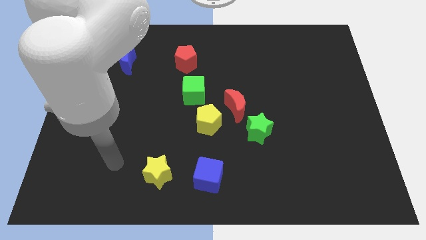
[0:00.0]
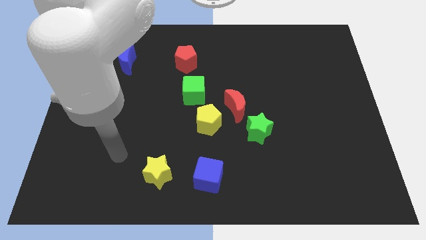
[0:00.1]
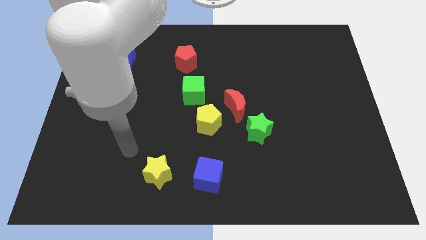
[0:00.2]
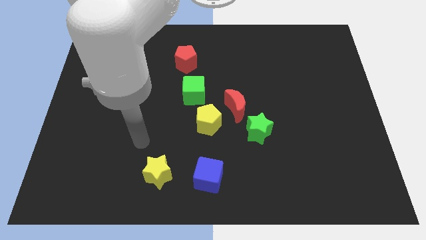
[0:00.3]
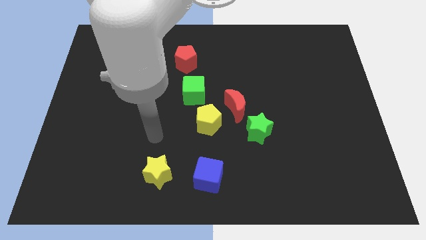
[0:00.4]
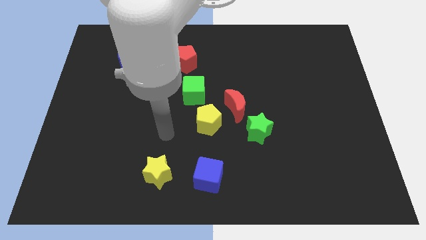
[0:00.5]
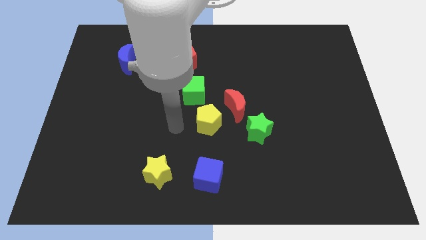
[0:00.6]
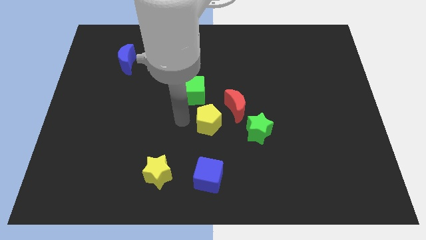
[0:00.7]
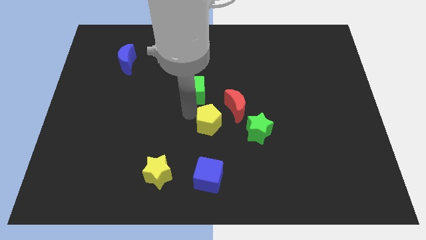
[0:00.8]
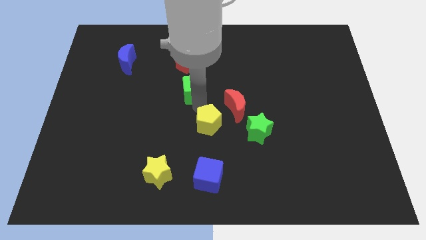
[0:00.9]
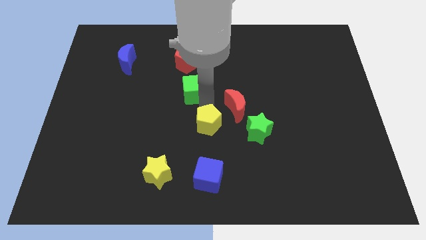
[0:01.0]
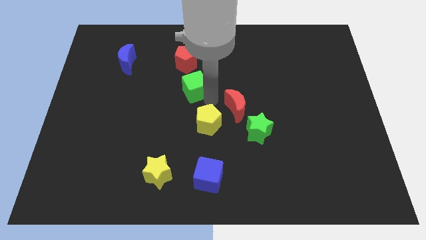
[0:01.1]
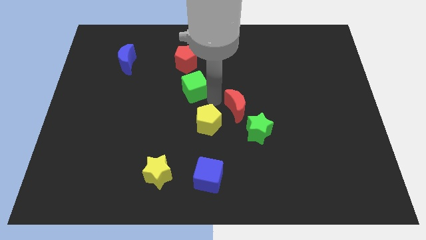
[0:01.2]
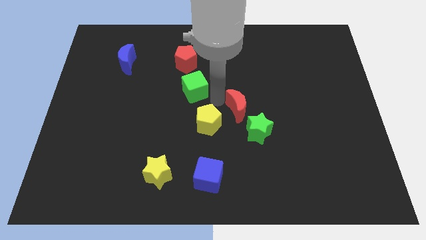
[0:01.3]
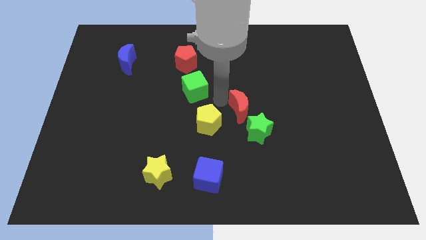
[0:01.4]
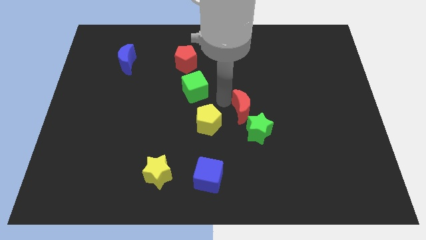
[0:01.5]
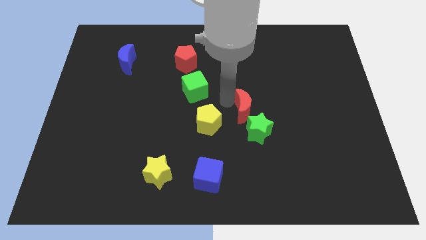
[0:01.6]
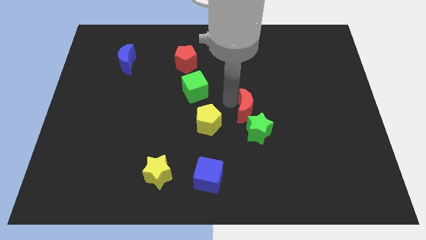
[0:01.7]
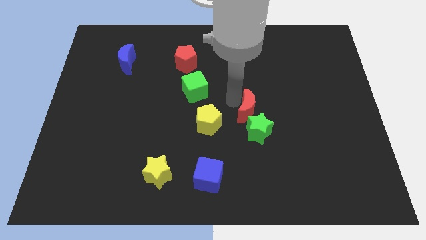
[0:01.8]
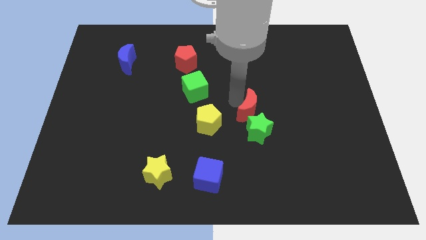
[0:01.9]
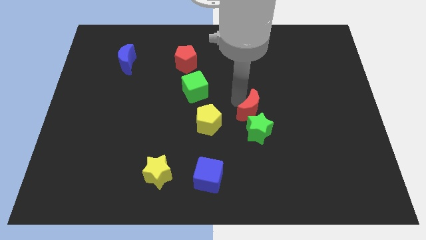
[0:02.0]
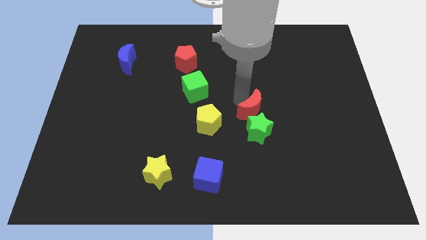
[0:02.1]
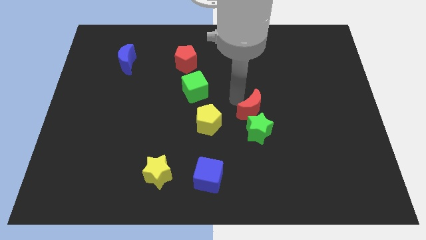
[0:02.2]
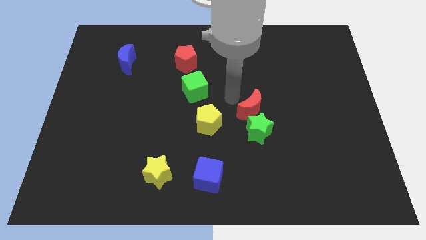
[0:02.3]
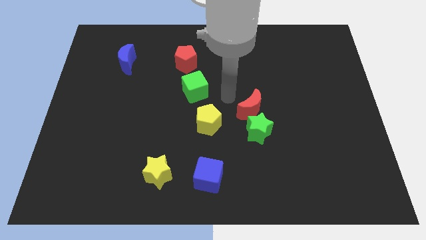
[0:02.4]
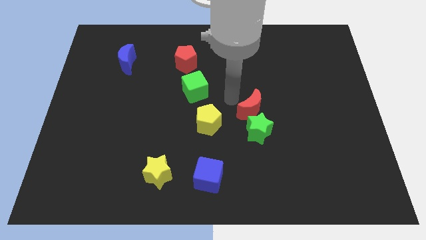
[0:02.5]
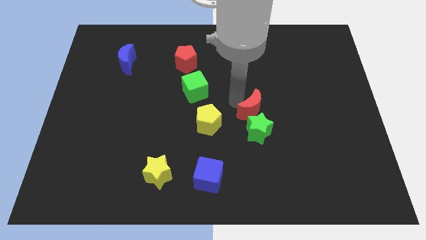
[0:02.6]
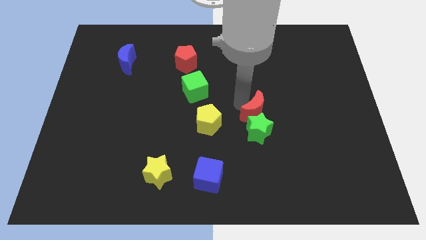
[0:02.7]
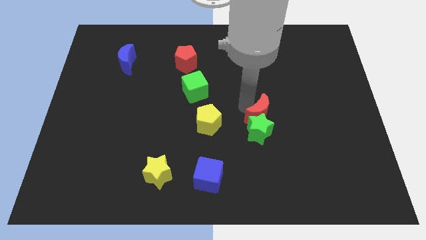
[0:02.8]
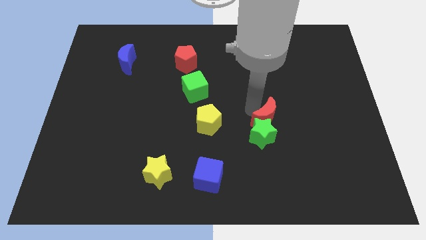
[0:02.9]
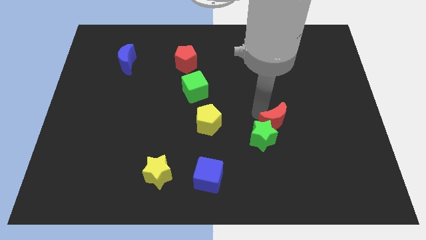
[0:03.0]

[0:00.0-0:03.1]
slightly move the red moon down and then right

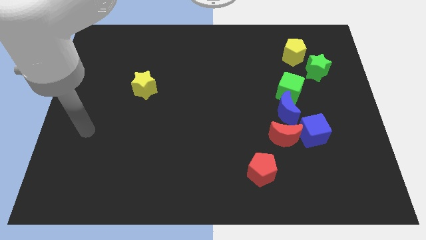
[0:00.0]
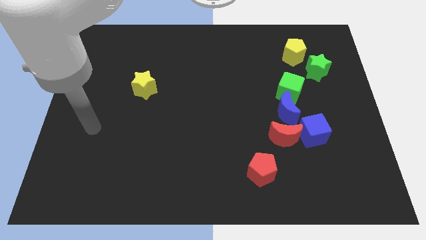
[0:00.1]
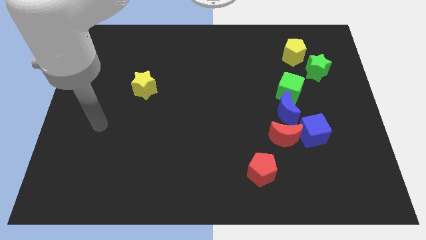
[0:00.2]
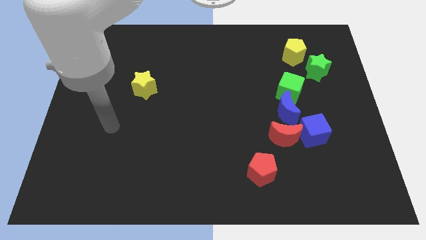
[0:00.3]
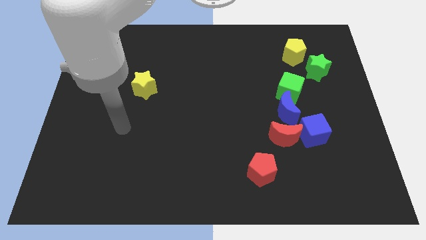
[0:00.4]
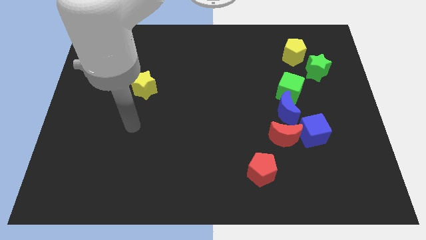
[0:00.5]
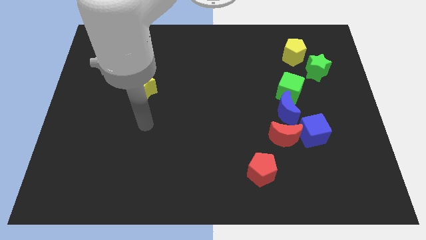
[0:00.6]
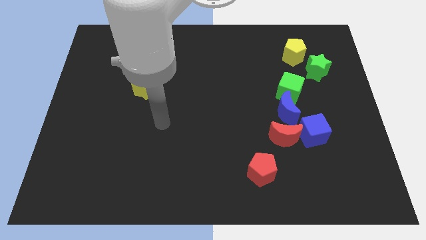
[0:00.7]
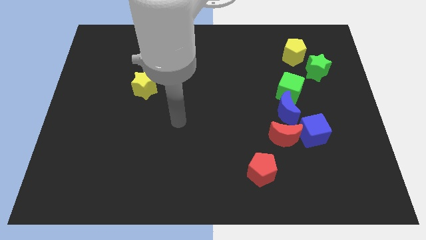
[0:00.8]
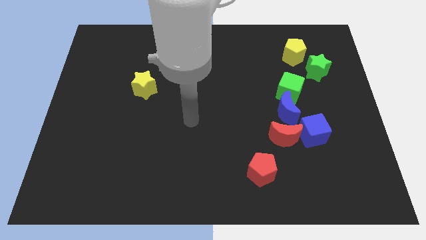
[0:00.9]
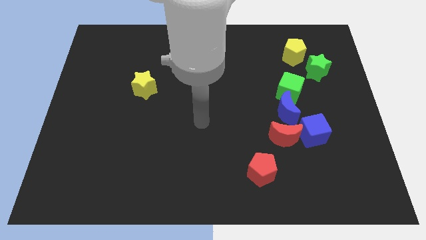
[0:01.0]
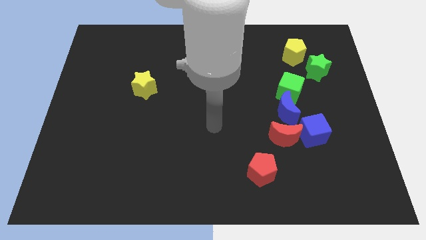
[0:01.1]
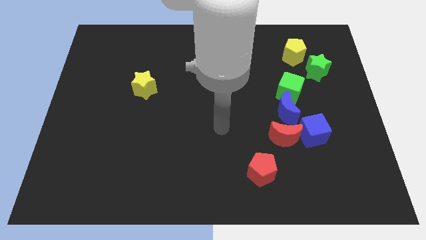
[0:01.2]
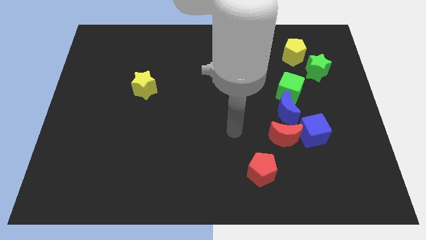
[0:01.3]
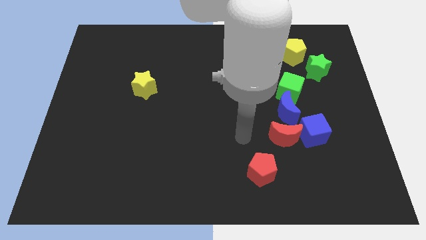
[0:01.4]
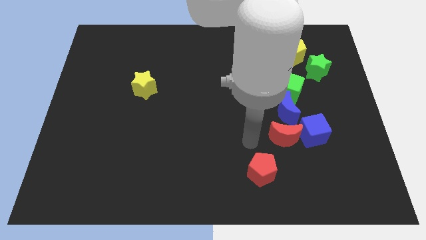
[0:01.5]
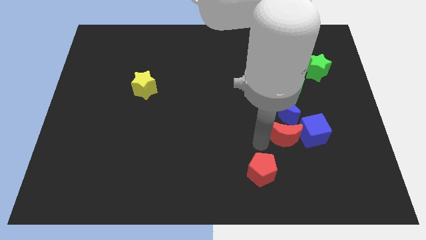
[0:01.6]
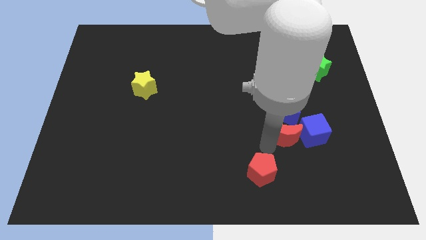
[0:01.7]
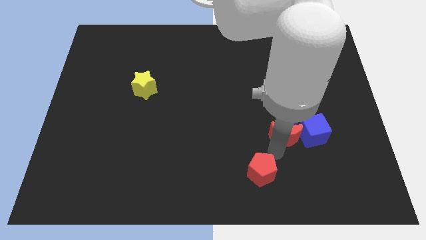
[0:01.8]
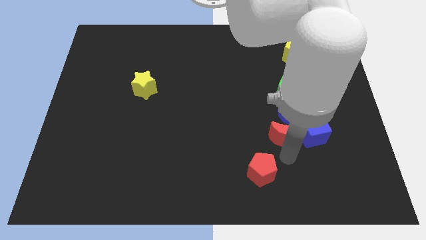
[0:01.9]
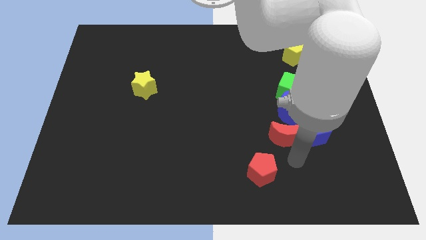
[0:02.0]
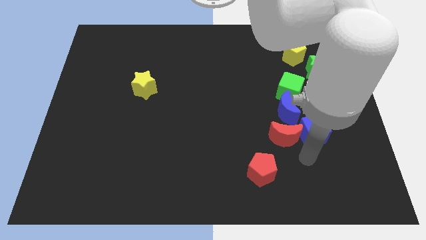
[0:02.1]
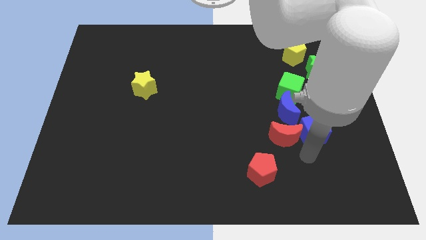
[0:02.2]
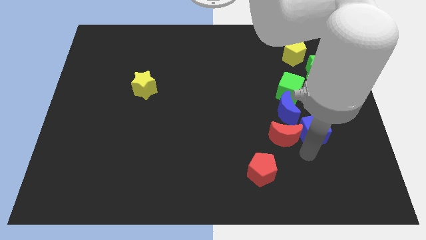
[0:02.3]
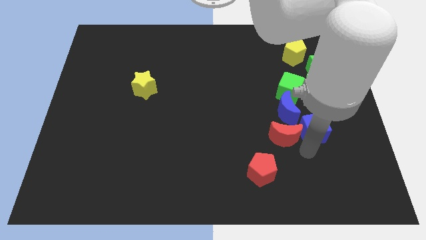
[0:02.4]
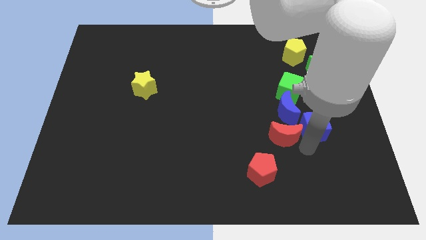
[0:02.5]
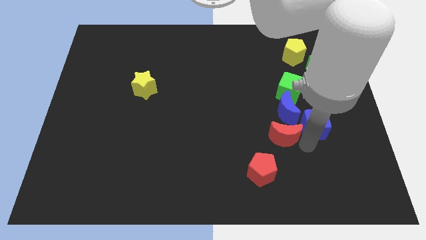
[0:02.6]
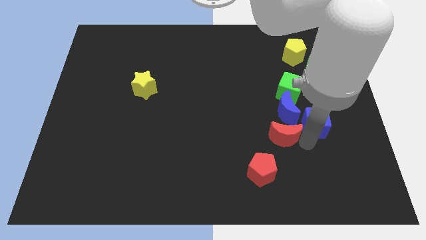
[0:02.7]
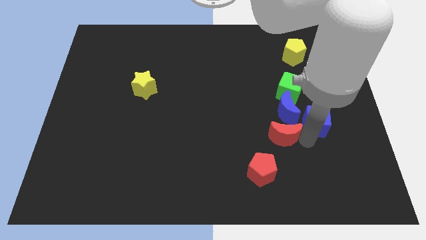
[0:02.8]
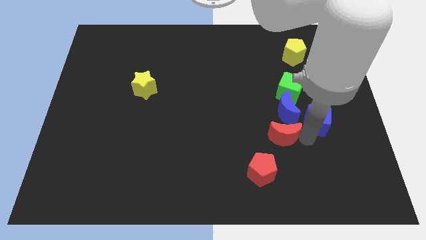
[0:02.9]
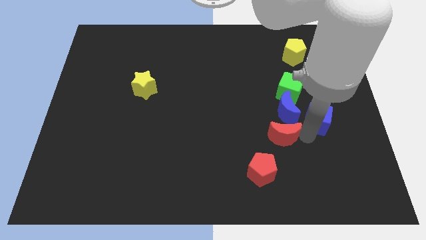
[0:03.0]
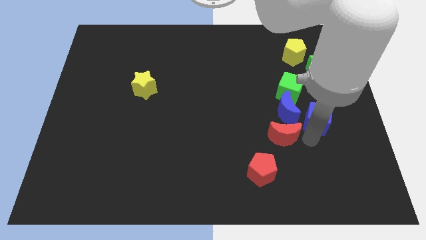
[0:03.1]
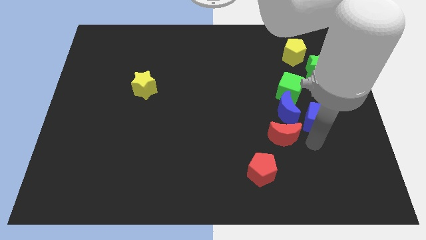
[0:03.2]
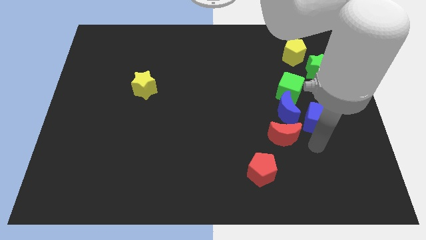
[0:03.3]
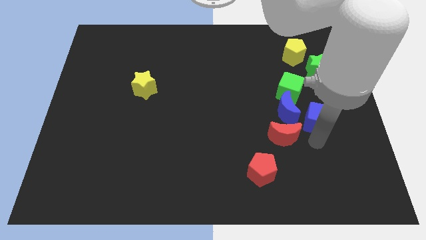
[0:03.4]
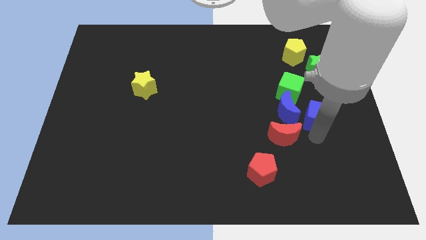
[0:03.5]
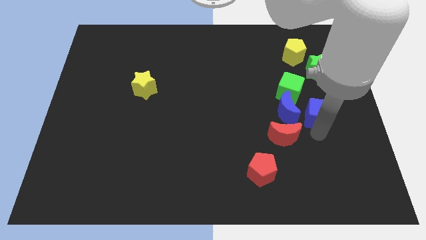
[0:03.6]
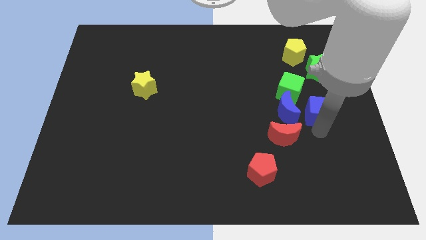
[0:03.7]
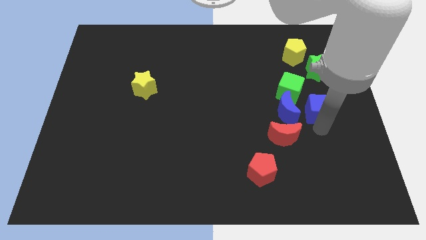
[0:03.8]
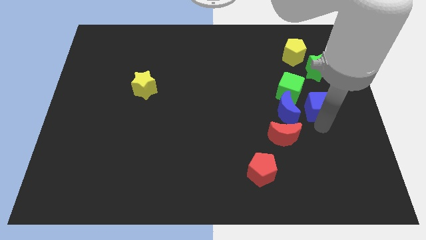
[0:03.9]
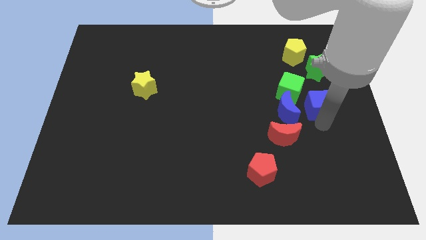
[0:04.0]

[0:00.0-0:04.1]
slightly move the blue cube upwards

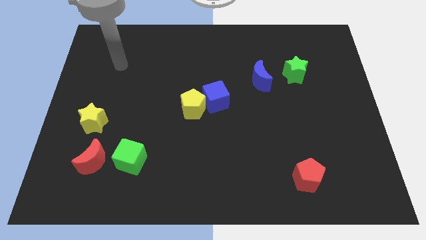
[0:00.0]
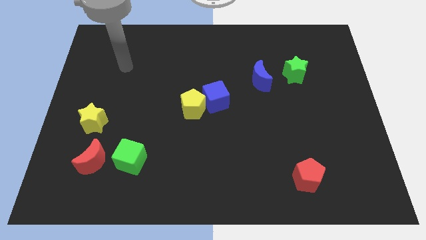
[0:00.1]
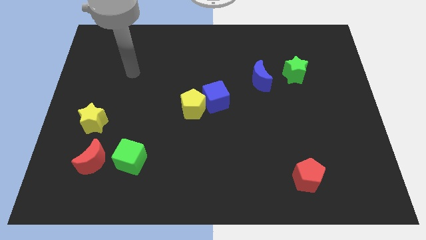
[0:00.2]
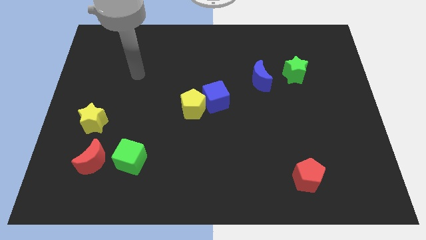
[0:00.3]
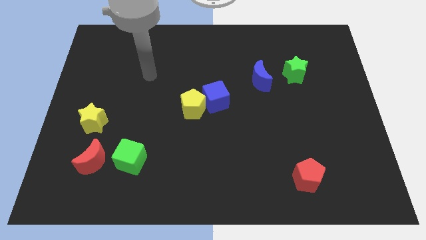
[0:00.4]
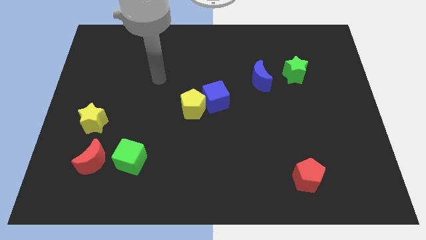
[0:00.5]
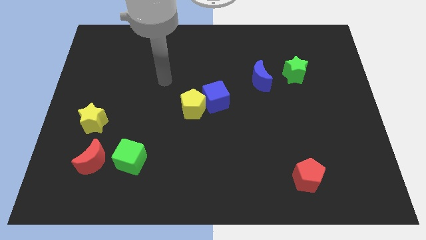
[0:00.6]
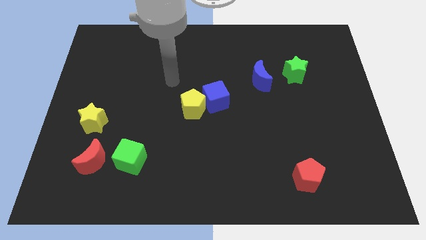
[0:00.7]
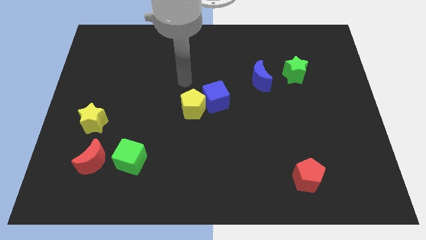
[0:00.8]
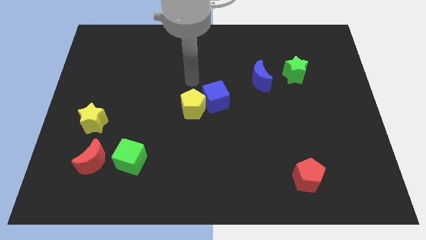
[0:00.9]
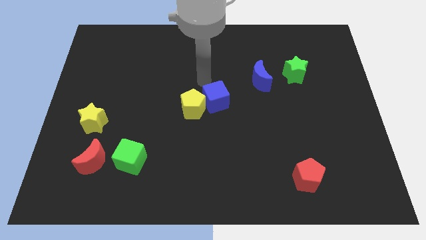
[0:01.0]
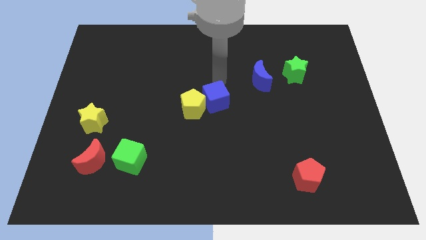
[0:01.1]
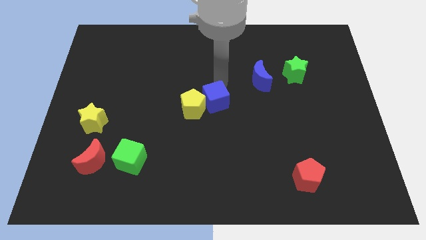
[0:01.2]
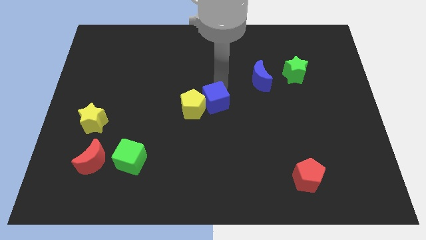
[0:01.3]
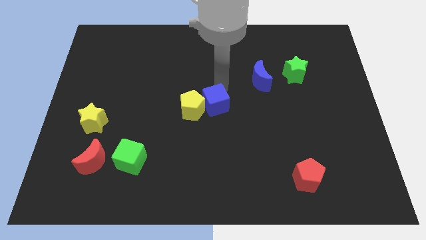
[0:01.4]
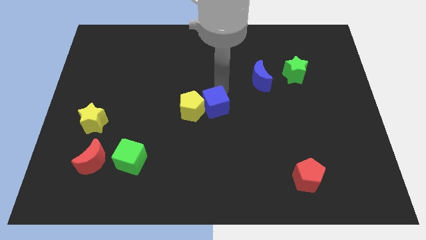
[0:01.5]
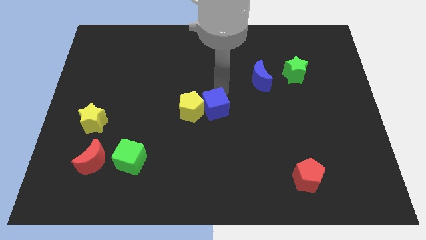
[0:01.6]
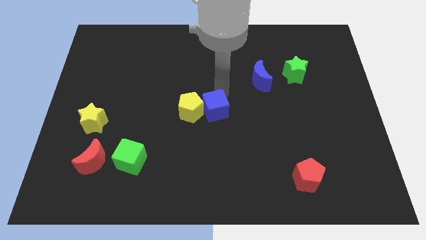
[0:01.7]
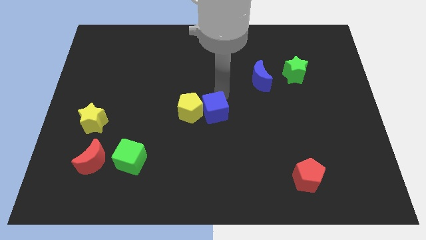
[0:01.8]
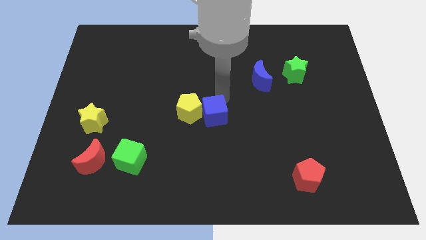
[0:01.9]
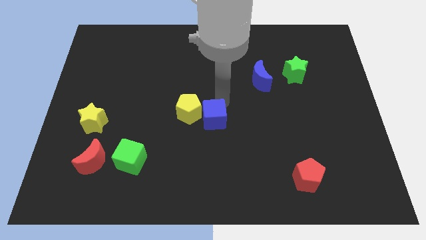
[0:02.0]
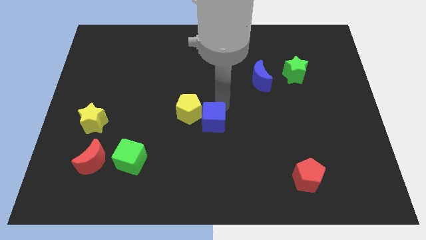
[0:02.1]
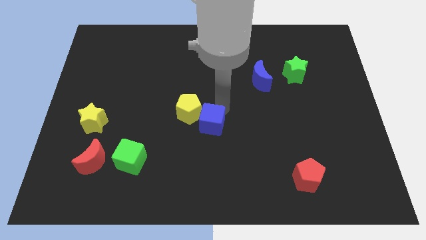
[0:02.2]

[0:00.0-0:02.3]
slide the blue cube downwards a bit
